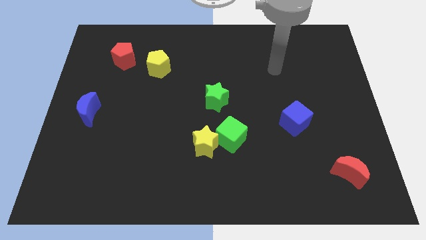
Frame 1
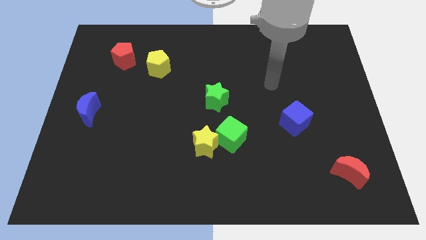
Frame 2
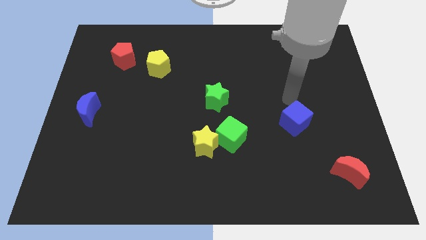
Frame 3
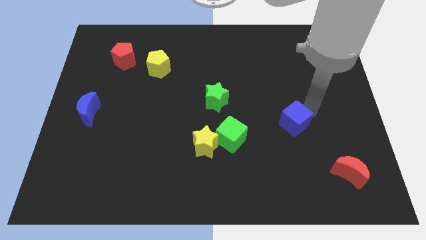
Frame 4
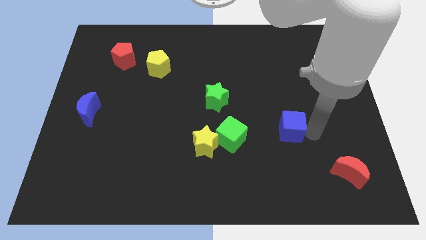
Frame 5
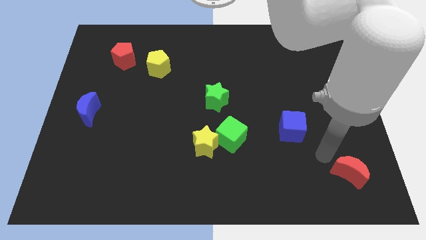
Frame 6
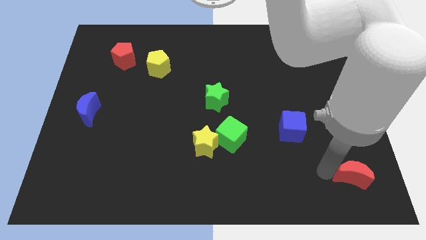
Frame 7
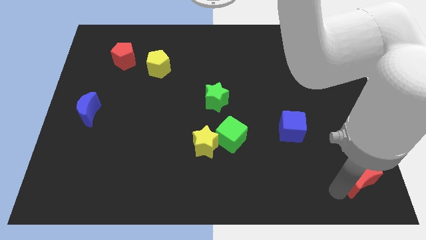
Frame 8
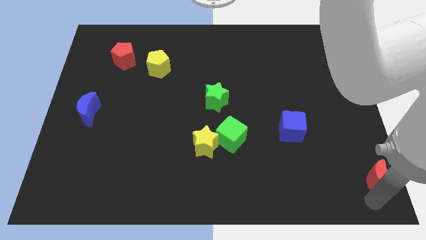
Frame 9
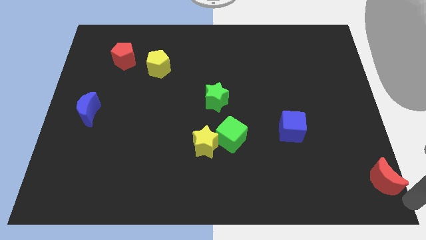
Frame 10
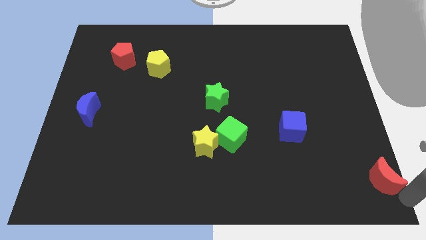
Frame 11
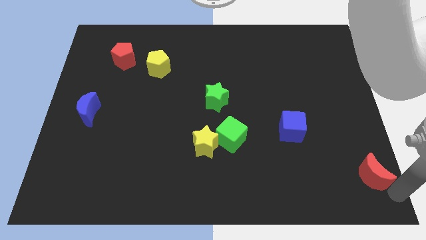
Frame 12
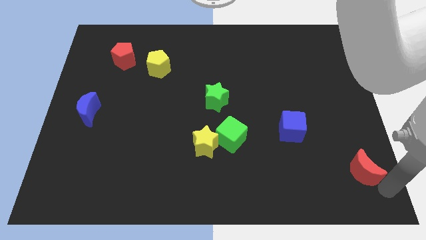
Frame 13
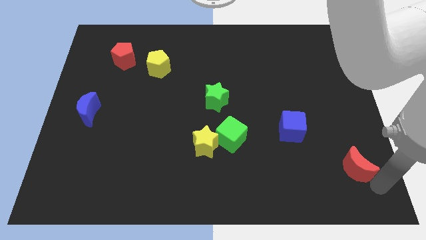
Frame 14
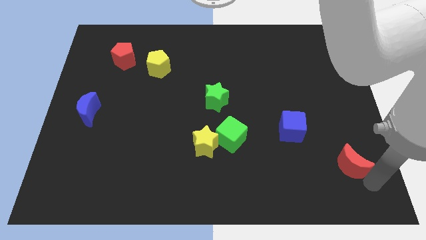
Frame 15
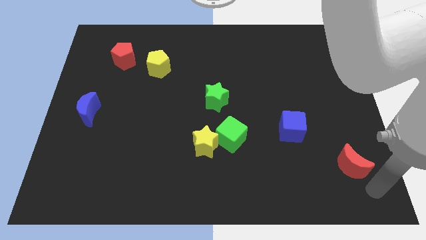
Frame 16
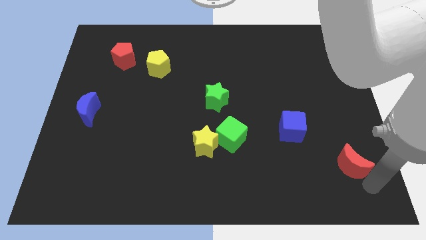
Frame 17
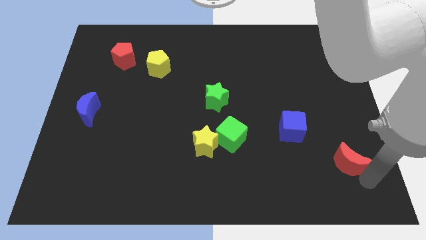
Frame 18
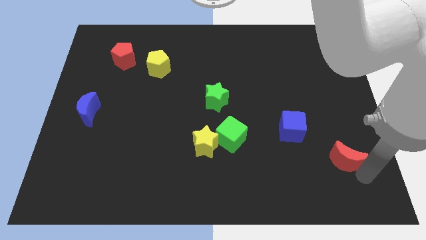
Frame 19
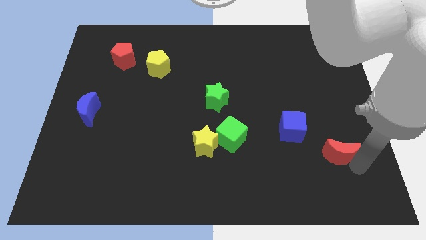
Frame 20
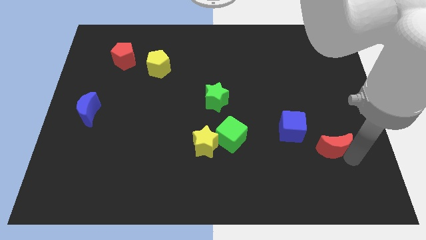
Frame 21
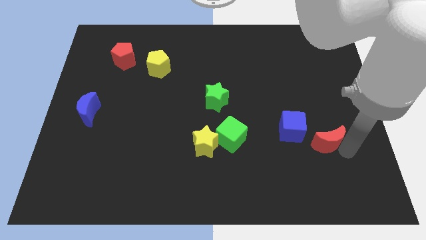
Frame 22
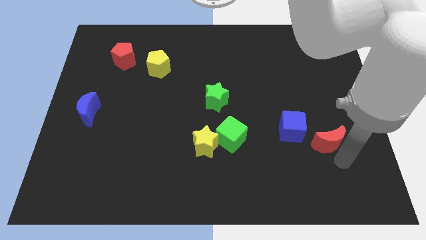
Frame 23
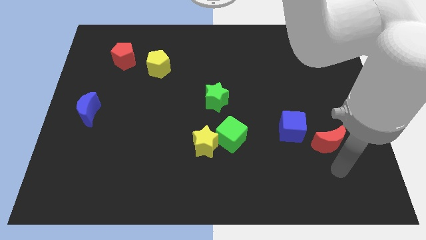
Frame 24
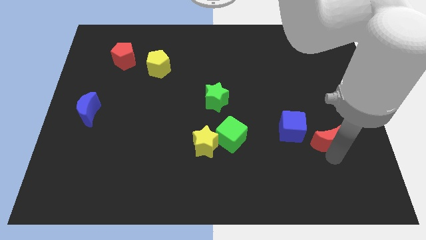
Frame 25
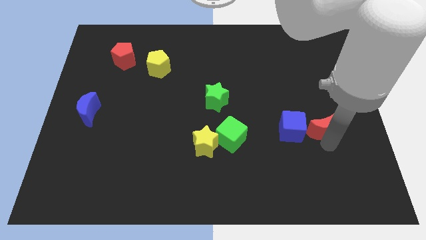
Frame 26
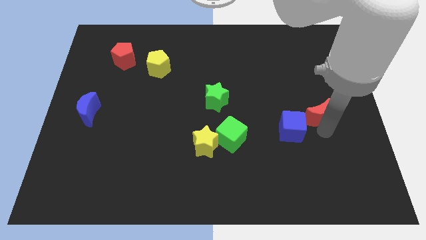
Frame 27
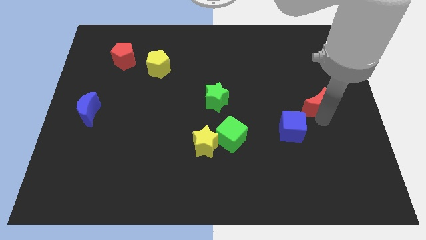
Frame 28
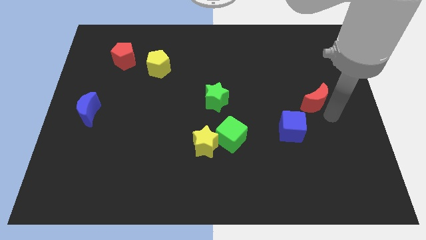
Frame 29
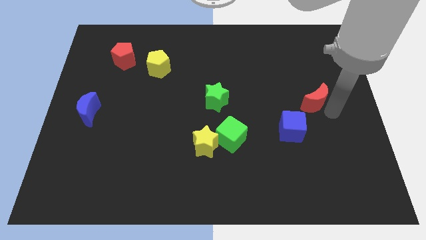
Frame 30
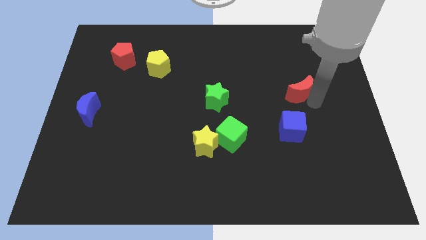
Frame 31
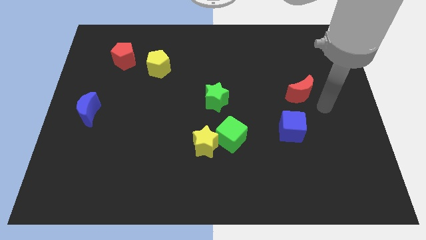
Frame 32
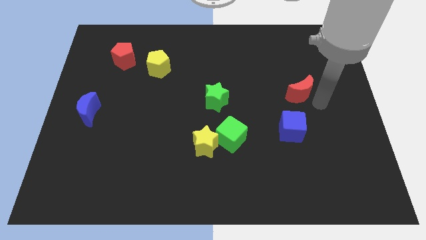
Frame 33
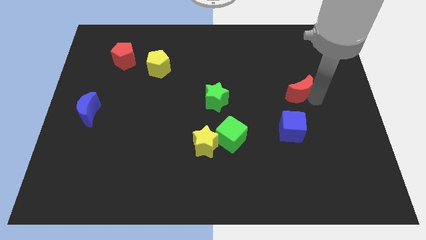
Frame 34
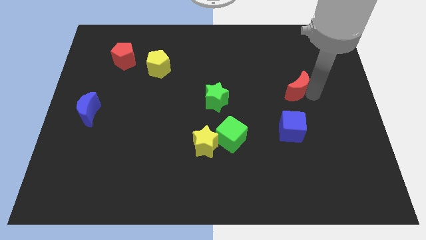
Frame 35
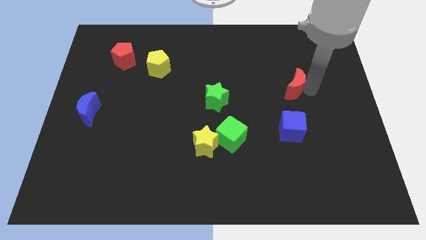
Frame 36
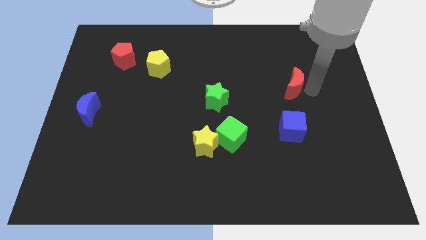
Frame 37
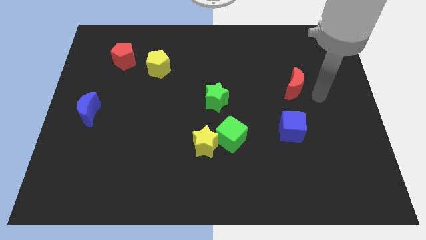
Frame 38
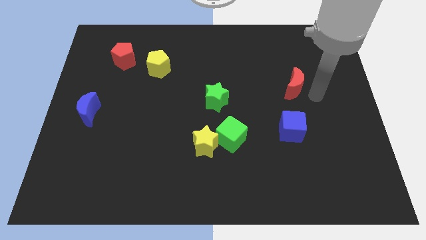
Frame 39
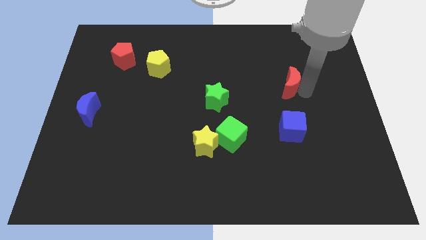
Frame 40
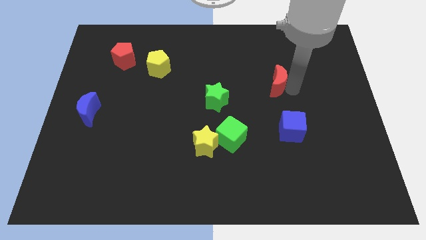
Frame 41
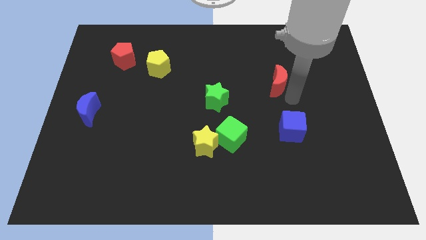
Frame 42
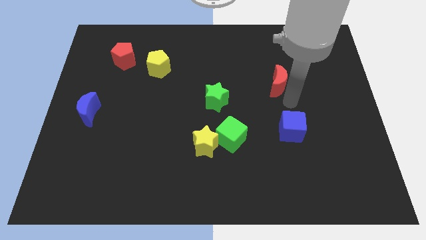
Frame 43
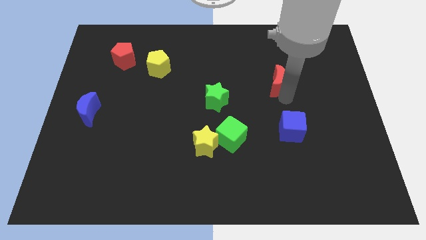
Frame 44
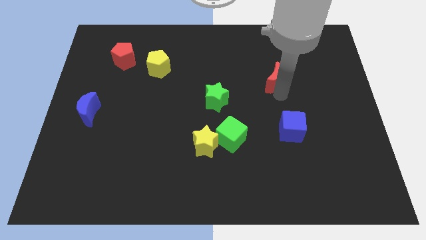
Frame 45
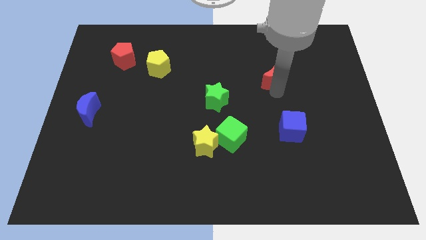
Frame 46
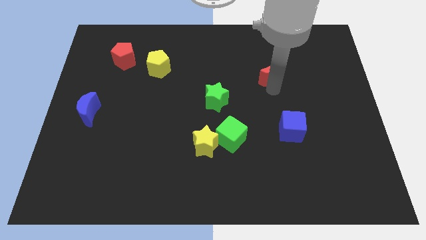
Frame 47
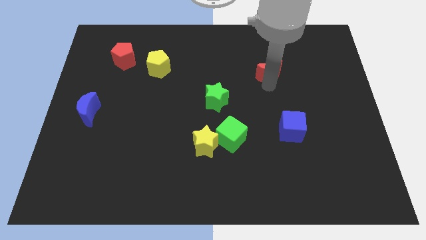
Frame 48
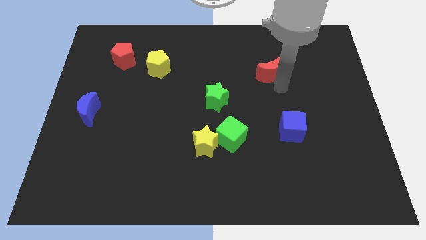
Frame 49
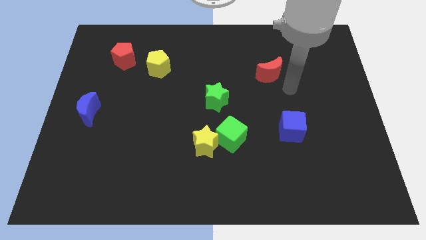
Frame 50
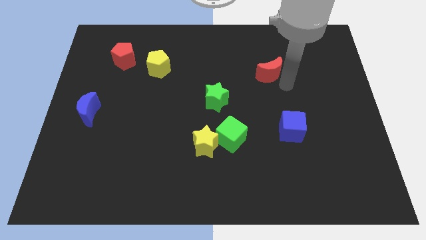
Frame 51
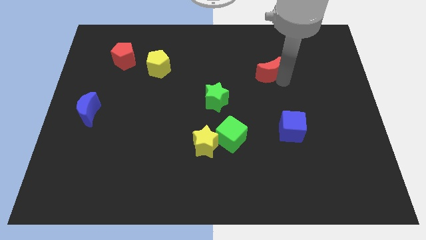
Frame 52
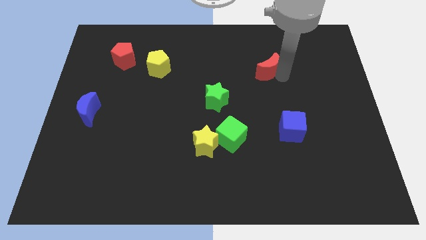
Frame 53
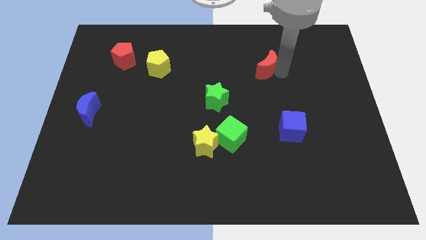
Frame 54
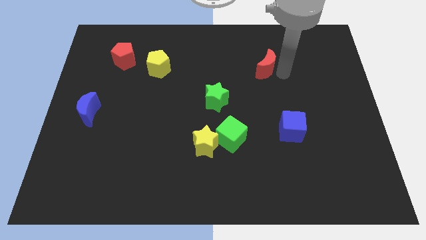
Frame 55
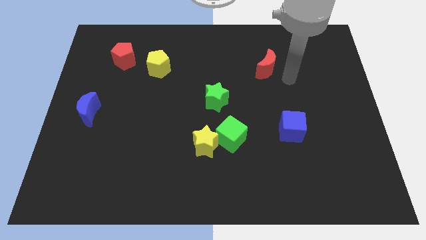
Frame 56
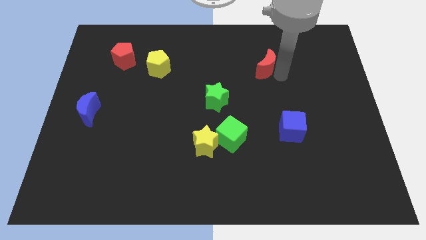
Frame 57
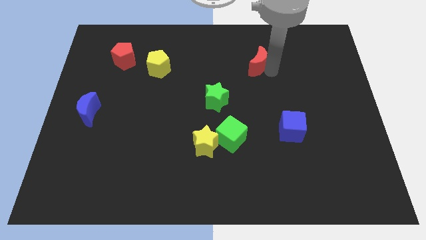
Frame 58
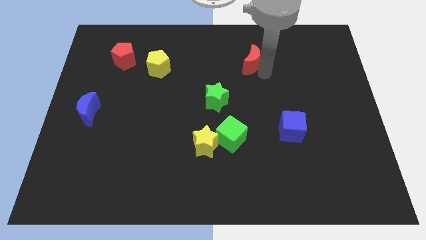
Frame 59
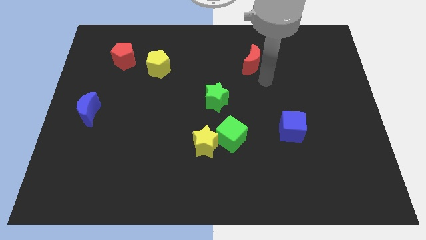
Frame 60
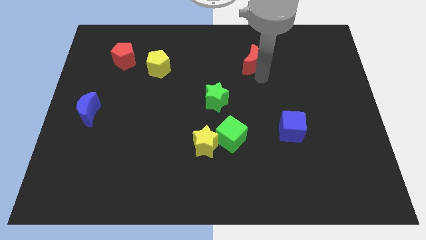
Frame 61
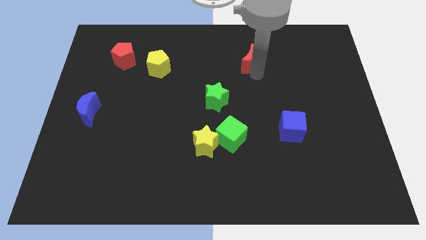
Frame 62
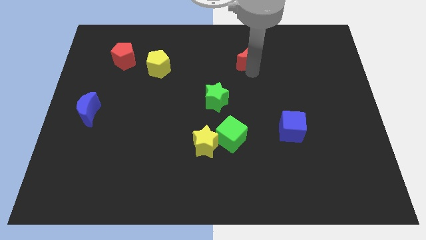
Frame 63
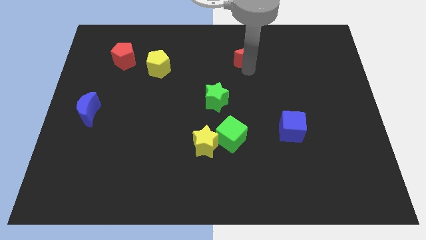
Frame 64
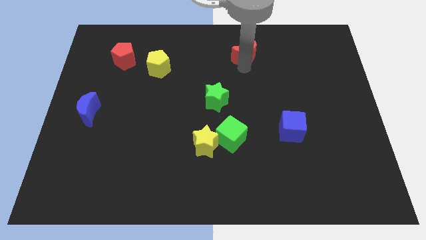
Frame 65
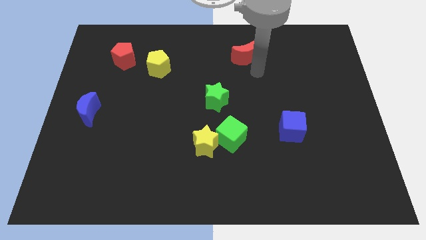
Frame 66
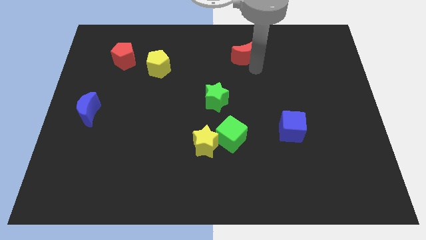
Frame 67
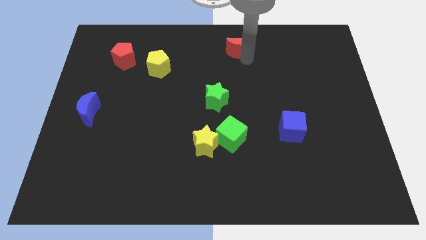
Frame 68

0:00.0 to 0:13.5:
move the red moon to the towards your base
